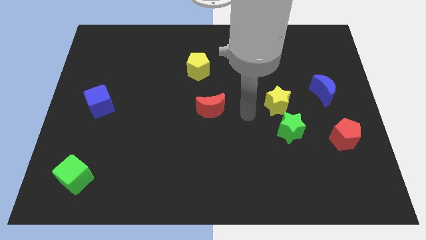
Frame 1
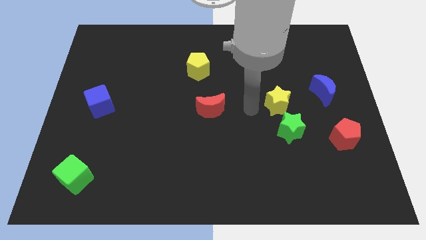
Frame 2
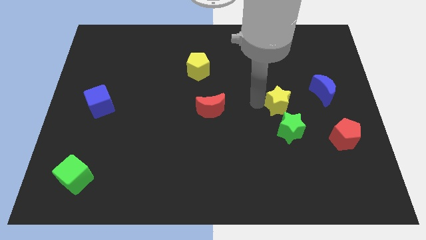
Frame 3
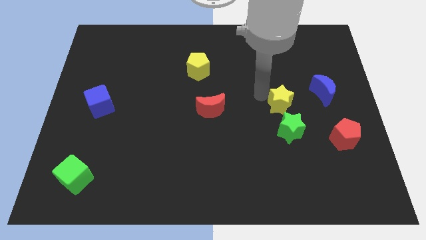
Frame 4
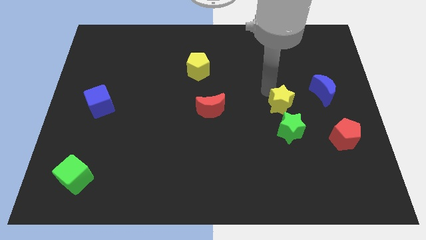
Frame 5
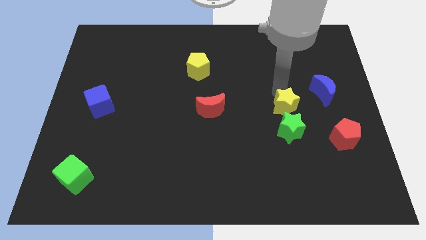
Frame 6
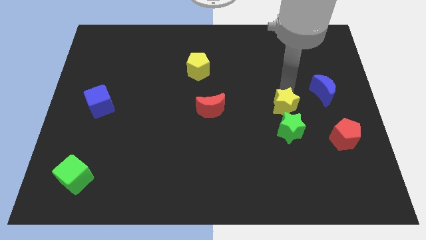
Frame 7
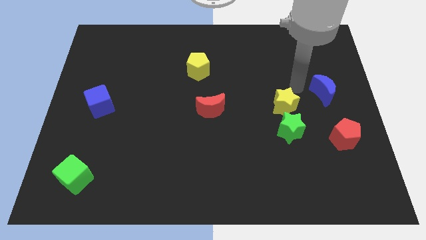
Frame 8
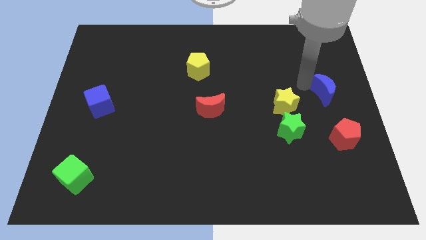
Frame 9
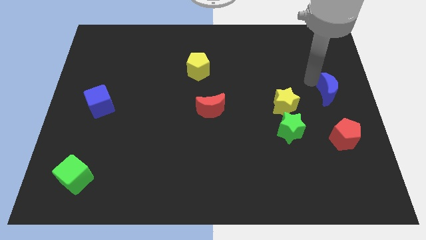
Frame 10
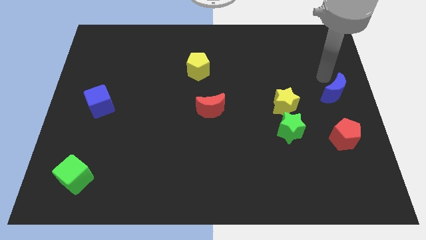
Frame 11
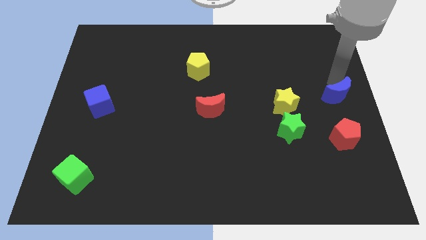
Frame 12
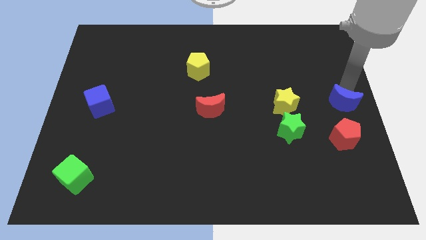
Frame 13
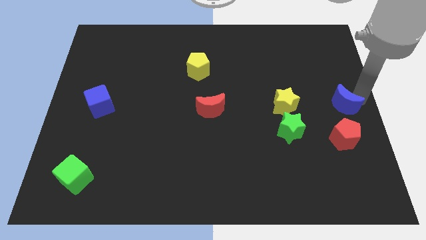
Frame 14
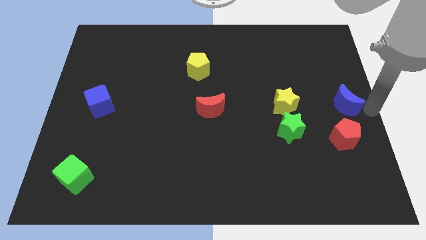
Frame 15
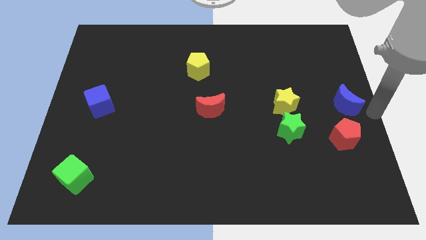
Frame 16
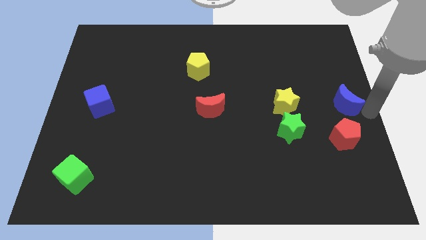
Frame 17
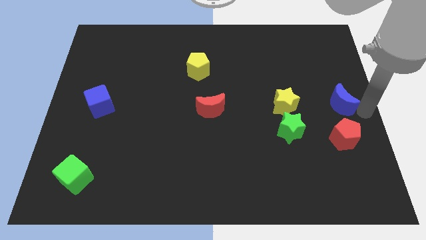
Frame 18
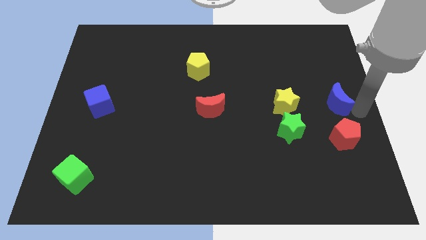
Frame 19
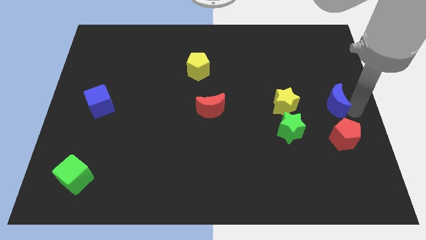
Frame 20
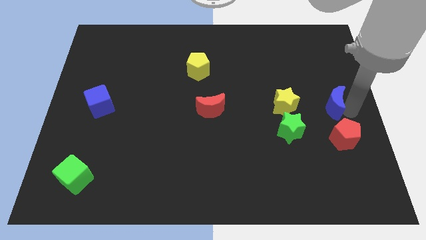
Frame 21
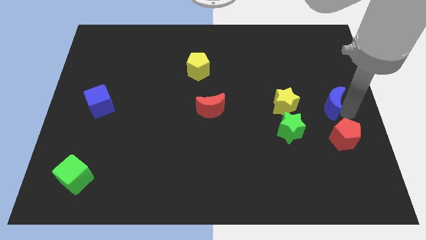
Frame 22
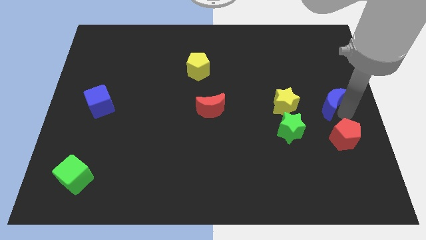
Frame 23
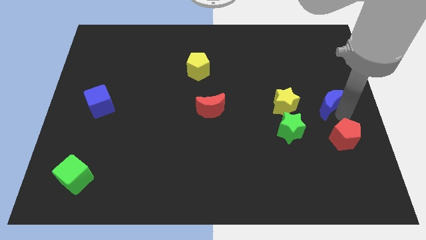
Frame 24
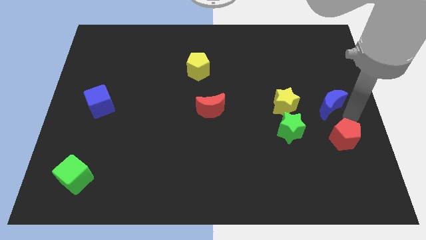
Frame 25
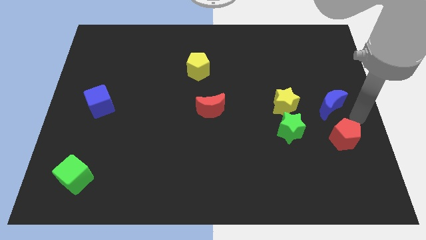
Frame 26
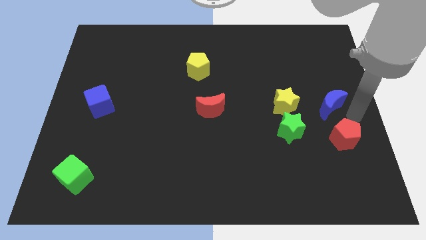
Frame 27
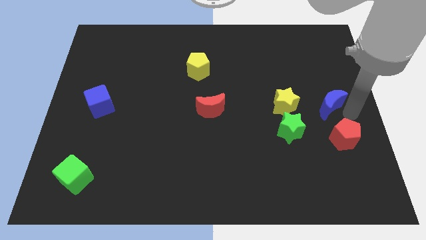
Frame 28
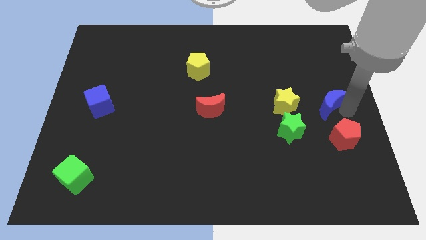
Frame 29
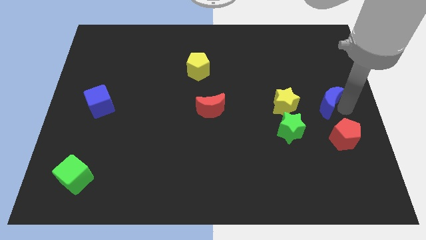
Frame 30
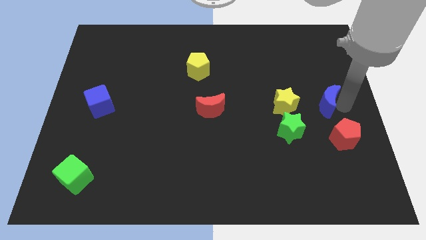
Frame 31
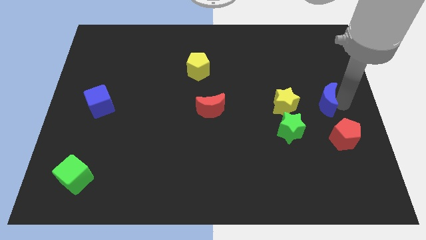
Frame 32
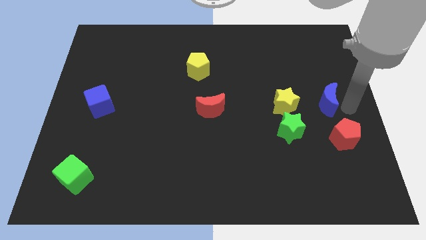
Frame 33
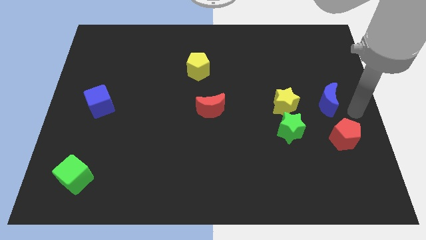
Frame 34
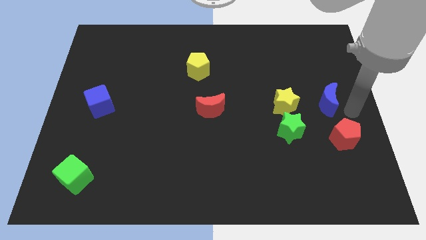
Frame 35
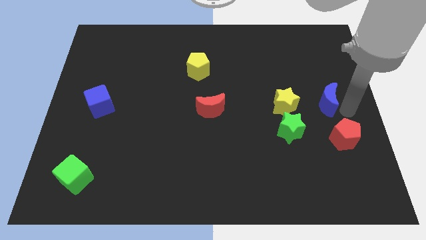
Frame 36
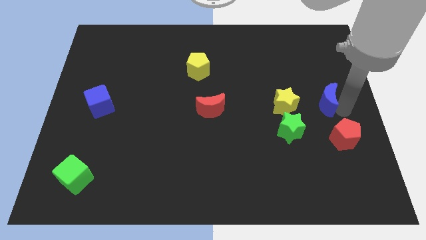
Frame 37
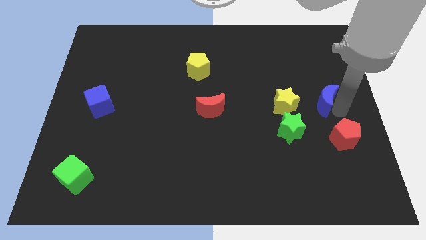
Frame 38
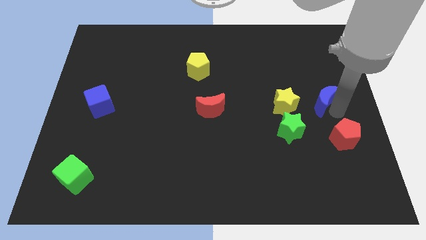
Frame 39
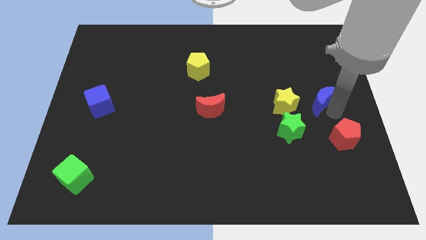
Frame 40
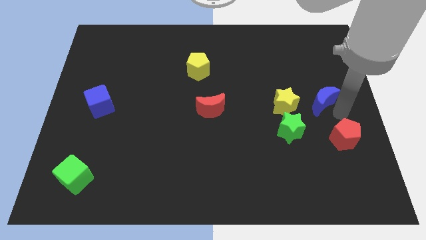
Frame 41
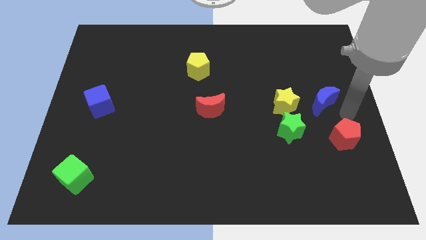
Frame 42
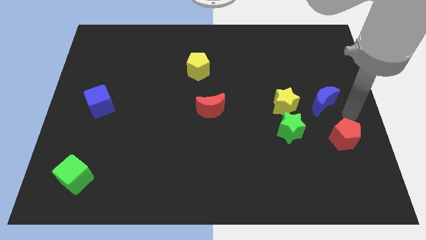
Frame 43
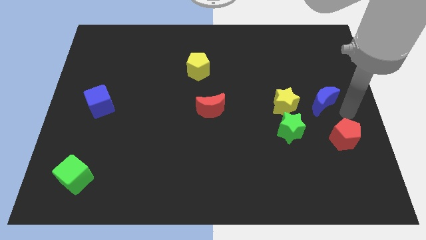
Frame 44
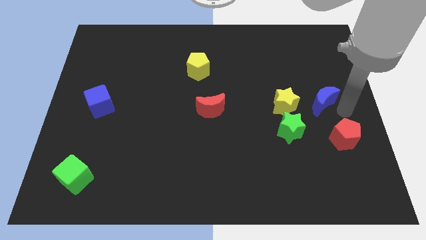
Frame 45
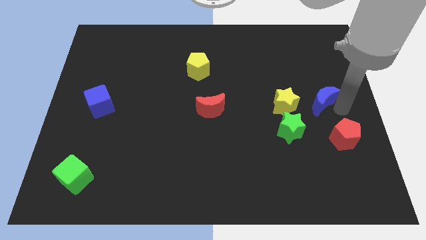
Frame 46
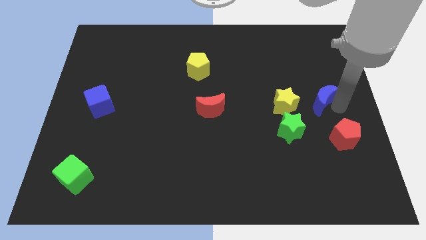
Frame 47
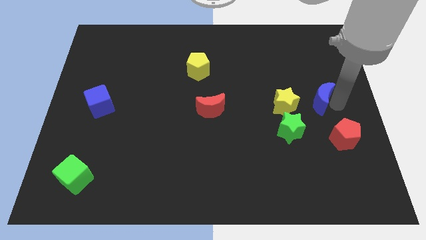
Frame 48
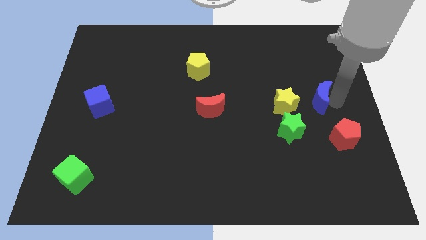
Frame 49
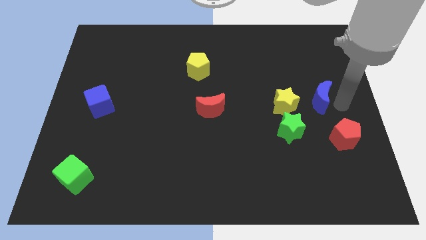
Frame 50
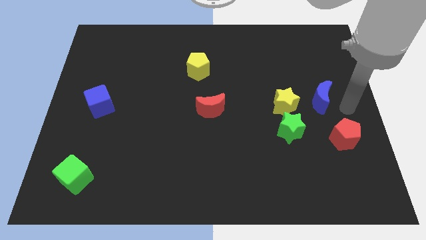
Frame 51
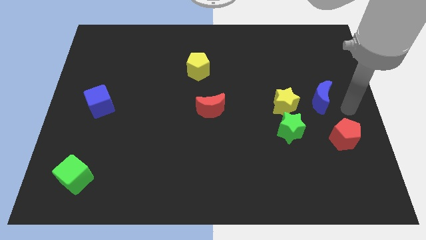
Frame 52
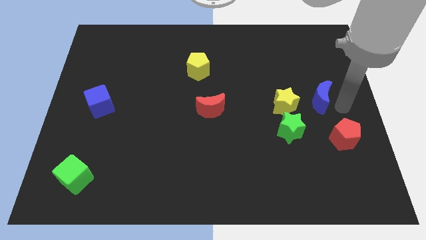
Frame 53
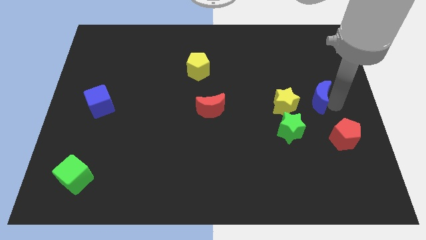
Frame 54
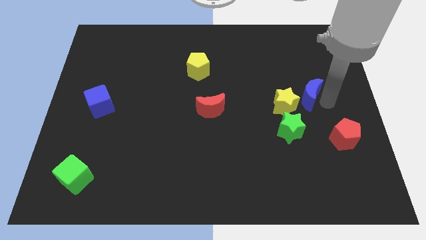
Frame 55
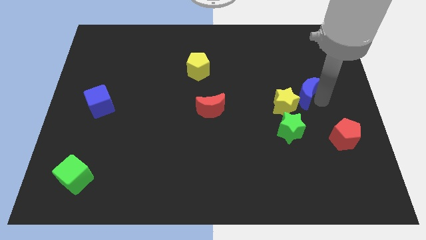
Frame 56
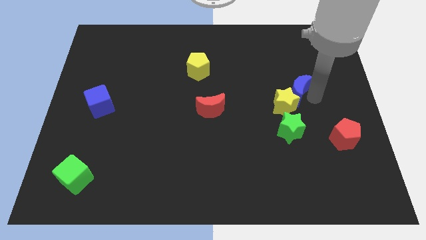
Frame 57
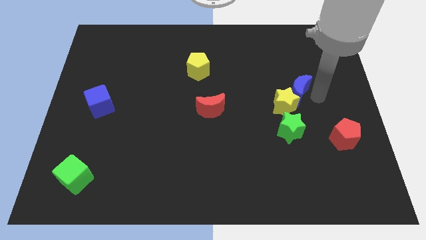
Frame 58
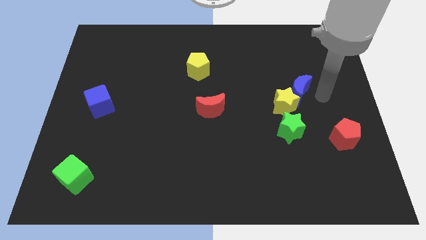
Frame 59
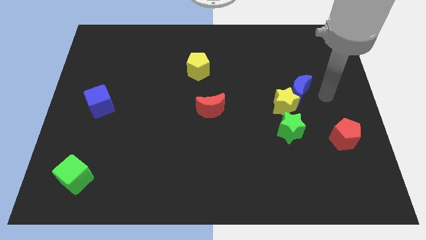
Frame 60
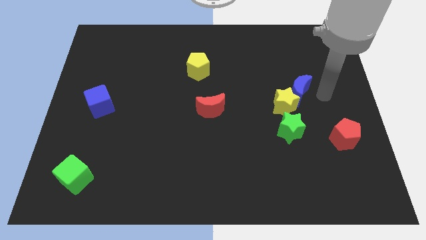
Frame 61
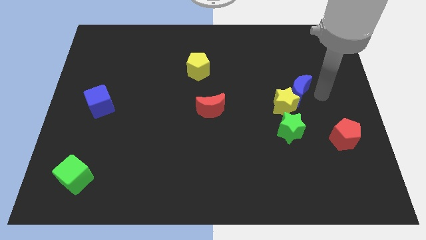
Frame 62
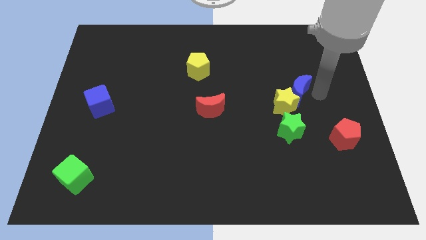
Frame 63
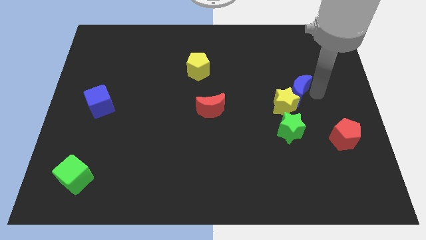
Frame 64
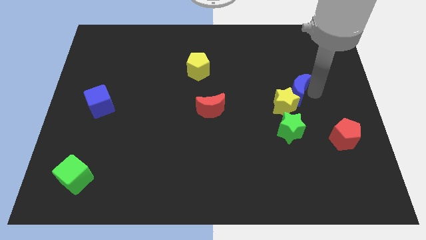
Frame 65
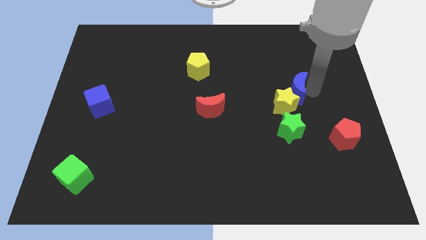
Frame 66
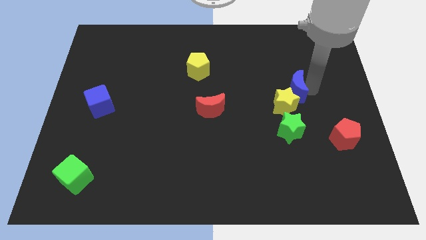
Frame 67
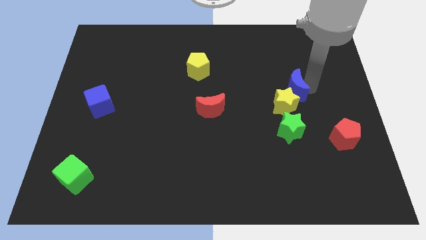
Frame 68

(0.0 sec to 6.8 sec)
move the blue moon a bit to the left

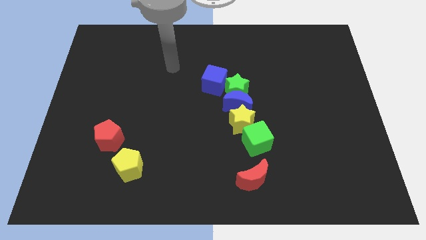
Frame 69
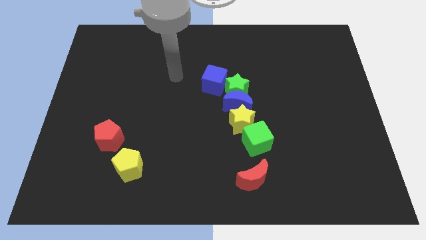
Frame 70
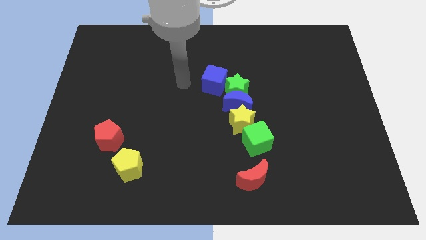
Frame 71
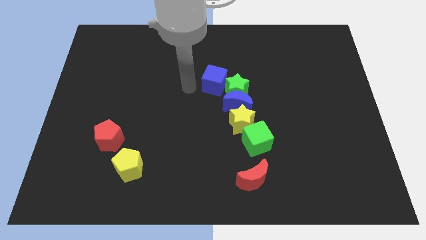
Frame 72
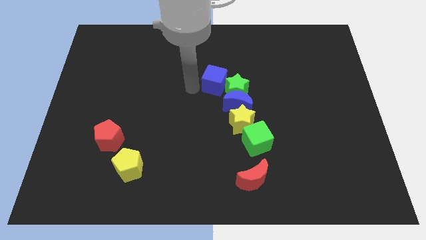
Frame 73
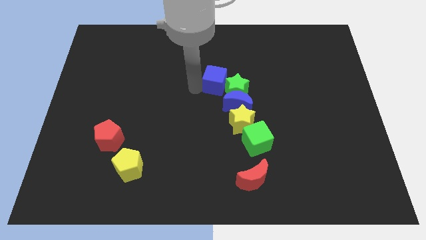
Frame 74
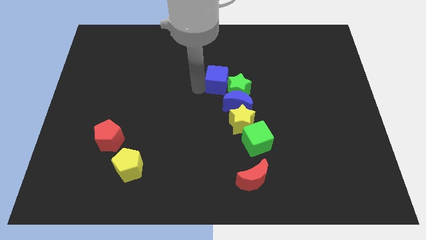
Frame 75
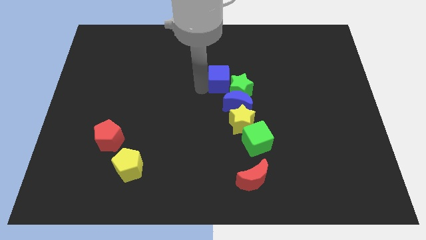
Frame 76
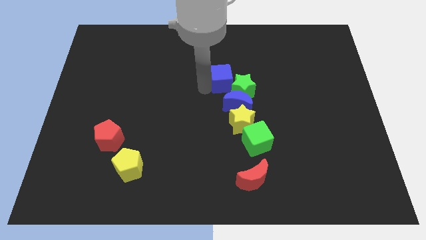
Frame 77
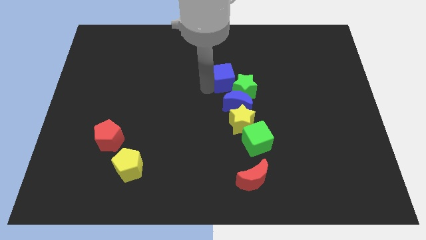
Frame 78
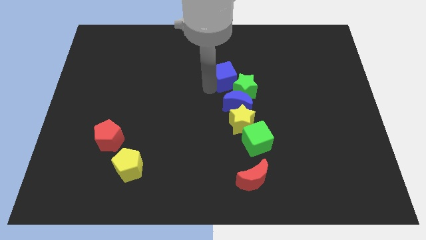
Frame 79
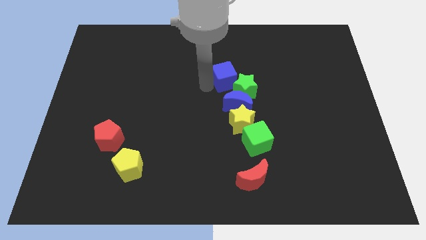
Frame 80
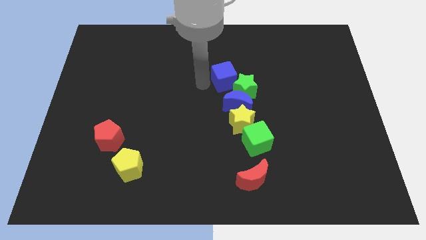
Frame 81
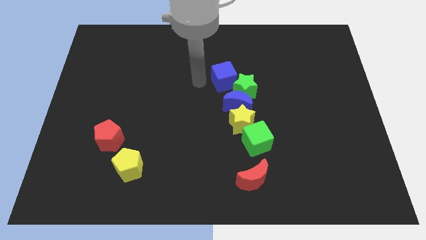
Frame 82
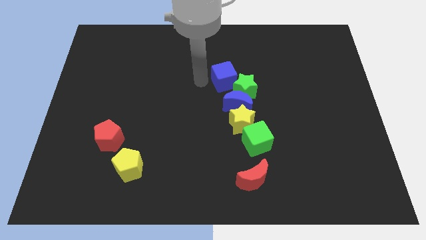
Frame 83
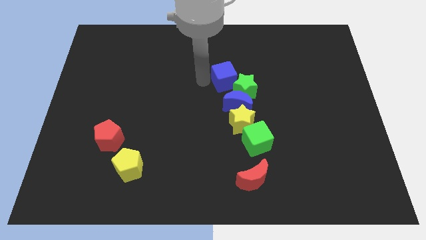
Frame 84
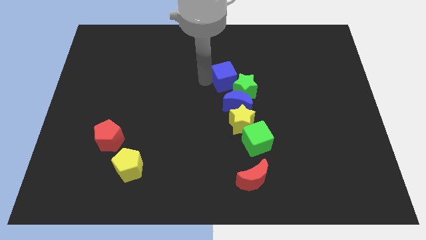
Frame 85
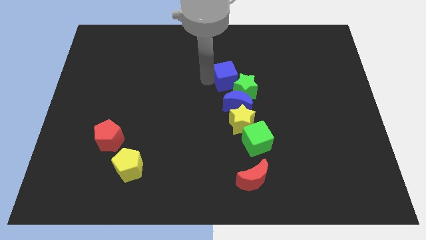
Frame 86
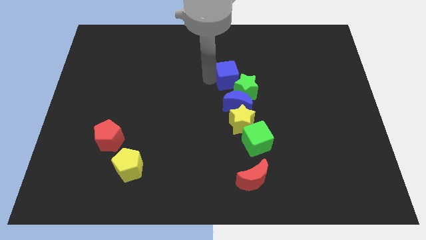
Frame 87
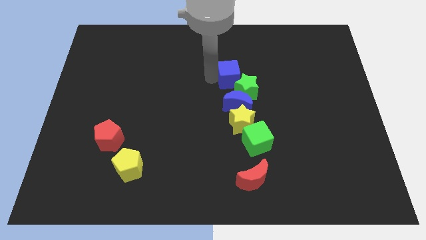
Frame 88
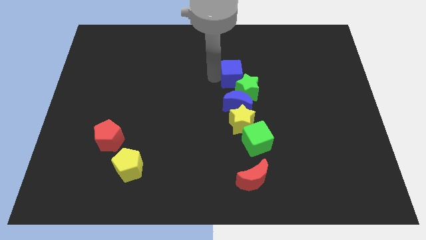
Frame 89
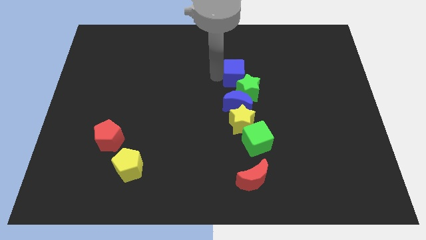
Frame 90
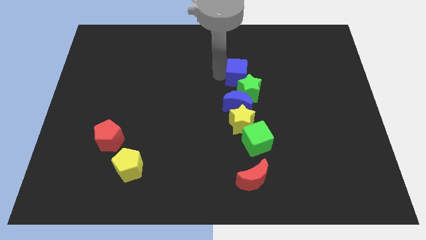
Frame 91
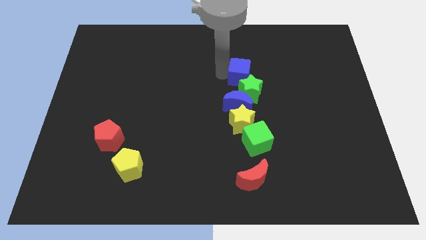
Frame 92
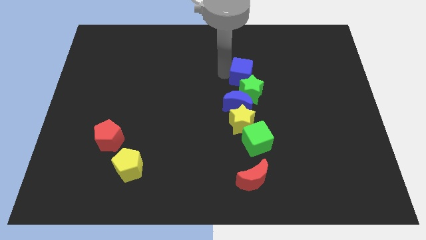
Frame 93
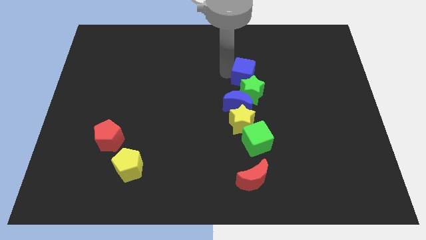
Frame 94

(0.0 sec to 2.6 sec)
push the blue cube right somewhat
